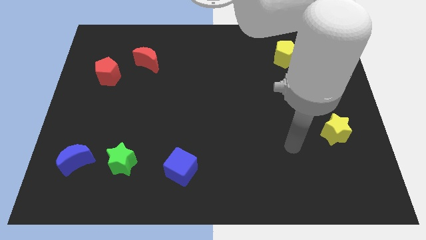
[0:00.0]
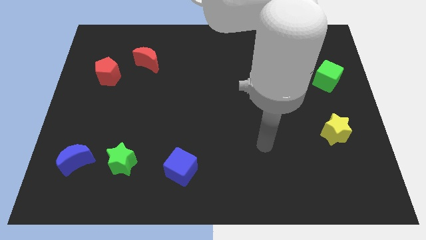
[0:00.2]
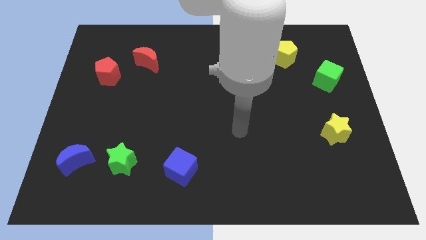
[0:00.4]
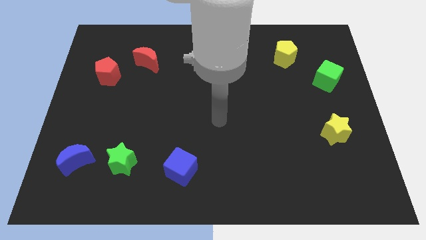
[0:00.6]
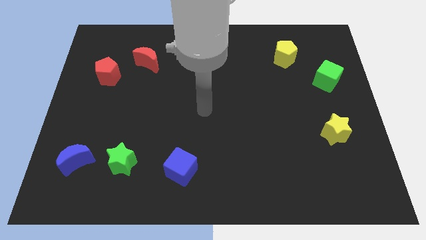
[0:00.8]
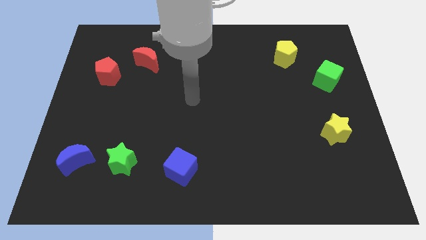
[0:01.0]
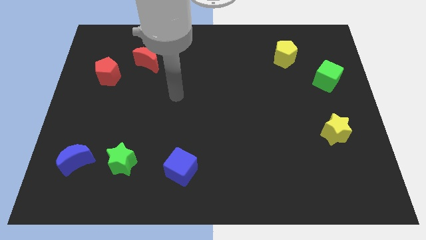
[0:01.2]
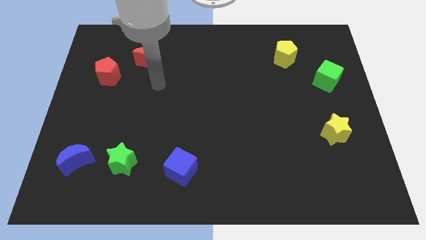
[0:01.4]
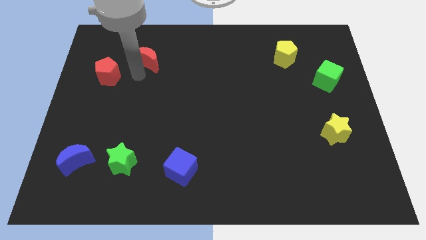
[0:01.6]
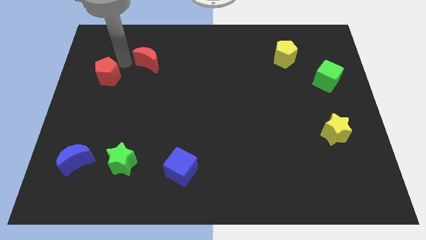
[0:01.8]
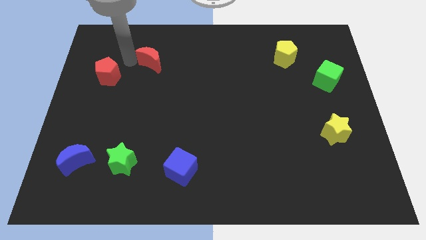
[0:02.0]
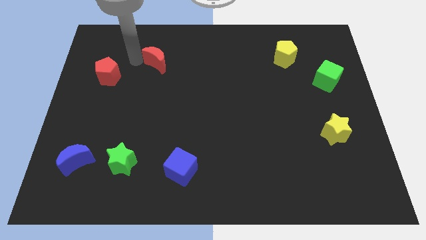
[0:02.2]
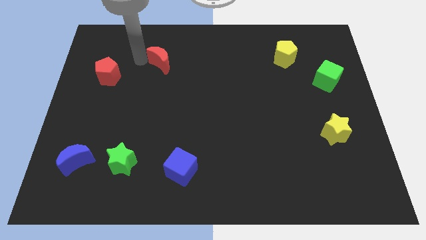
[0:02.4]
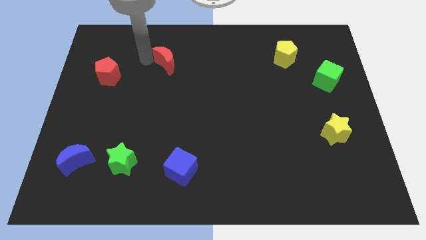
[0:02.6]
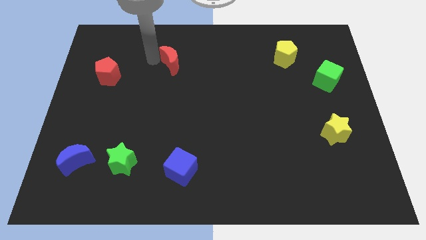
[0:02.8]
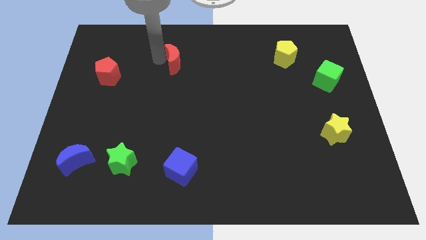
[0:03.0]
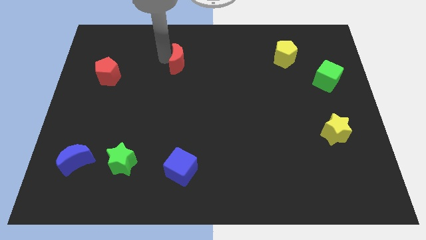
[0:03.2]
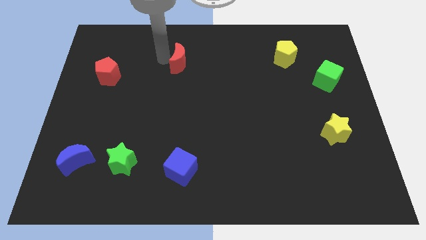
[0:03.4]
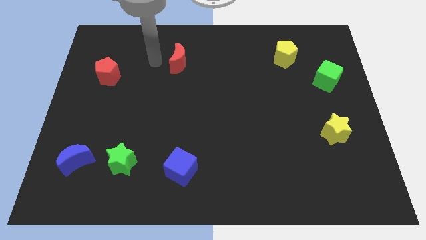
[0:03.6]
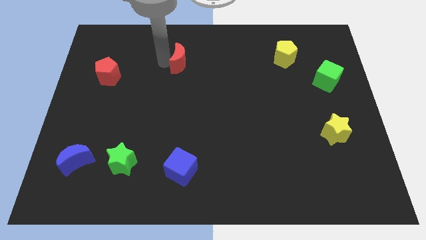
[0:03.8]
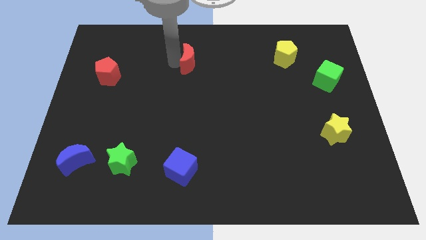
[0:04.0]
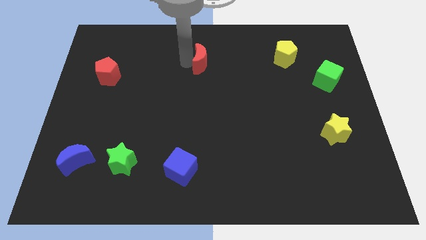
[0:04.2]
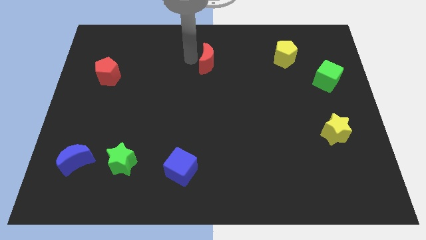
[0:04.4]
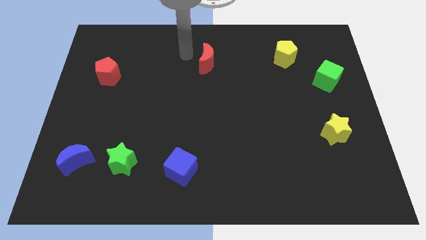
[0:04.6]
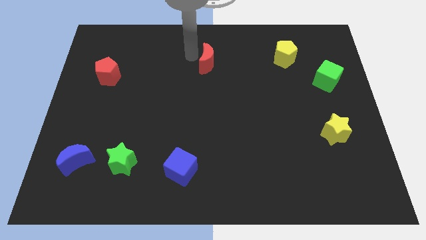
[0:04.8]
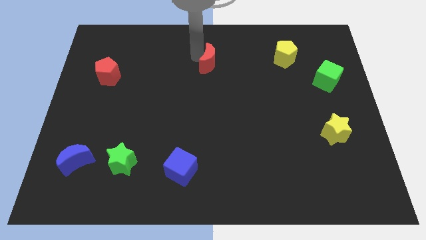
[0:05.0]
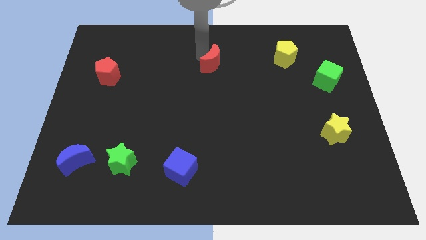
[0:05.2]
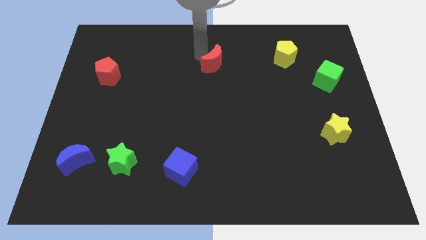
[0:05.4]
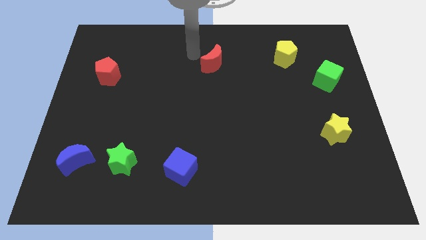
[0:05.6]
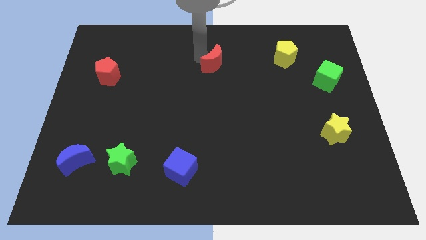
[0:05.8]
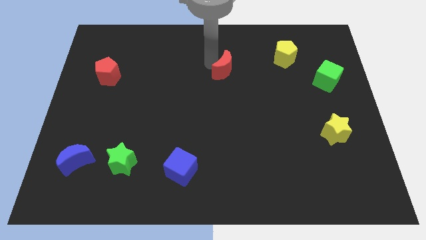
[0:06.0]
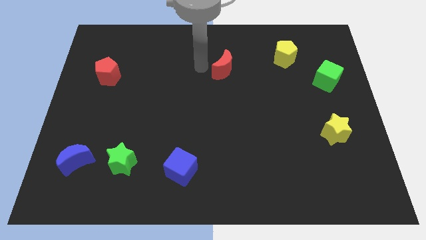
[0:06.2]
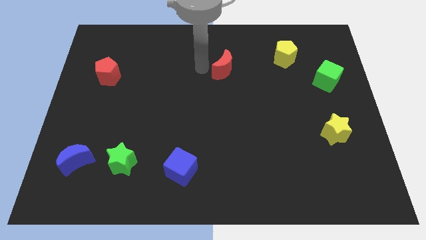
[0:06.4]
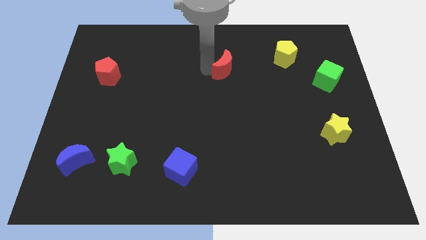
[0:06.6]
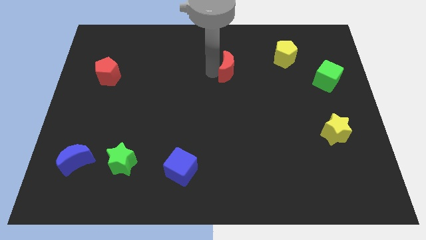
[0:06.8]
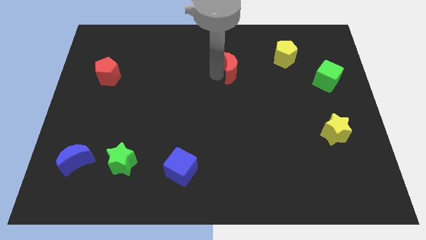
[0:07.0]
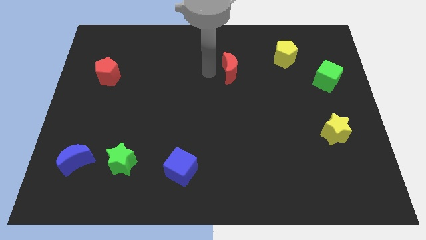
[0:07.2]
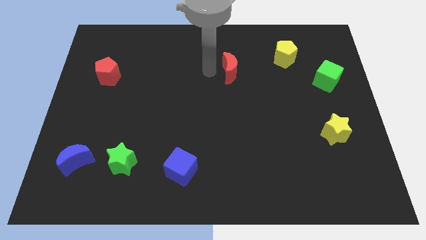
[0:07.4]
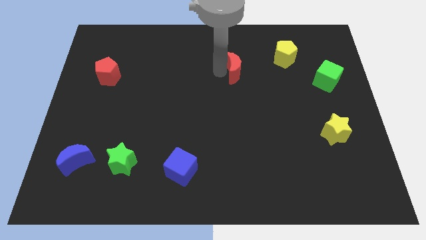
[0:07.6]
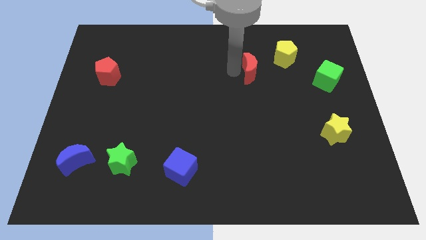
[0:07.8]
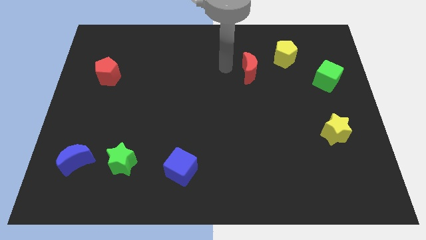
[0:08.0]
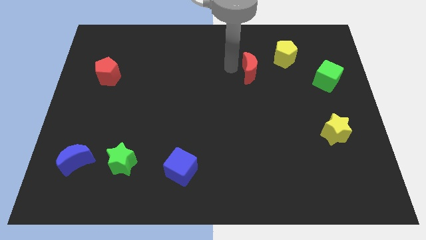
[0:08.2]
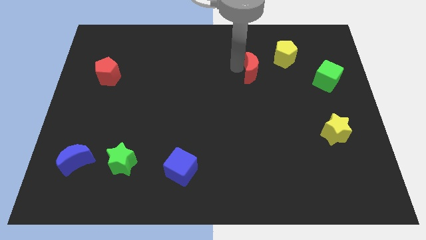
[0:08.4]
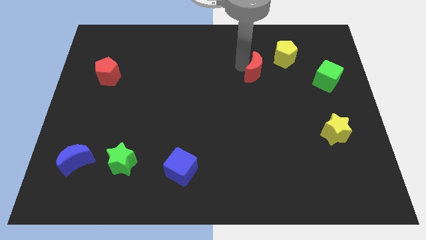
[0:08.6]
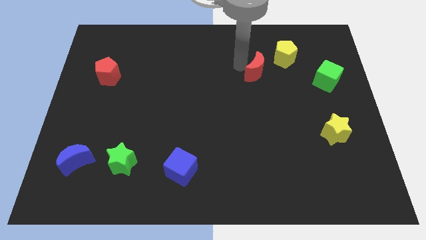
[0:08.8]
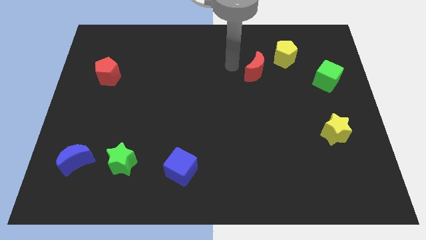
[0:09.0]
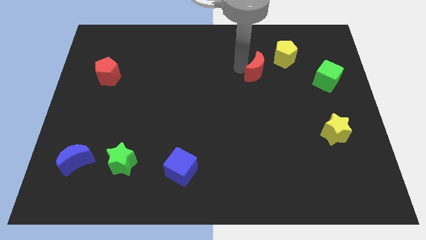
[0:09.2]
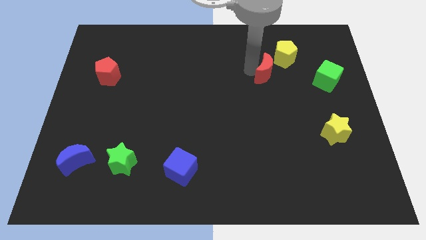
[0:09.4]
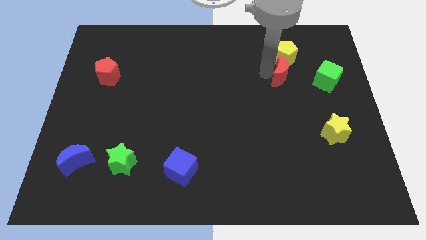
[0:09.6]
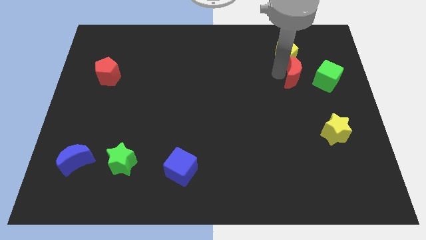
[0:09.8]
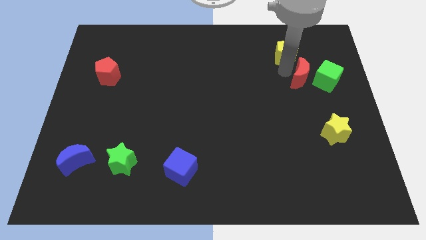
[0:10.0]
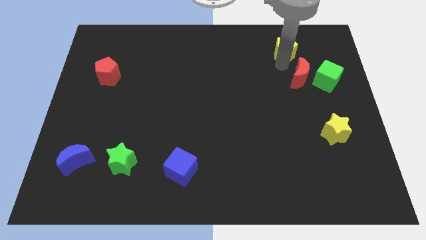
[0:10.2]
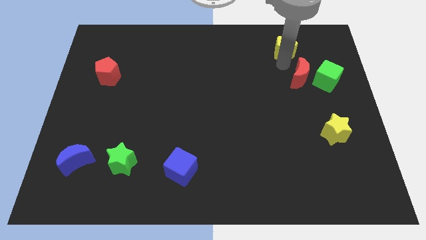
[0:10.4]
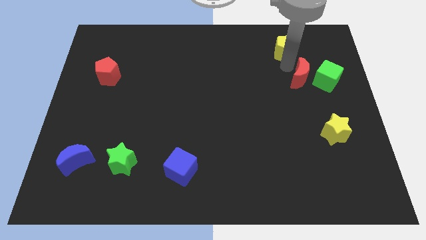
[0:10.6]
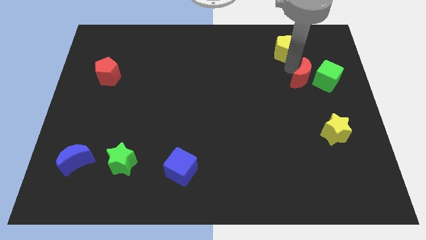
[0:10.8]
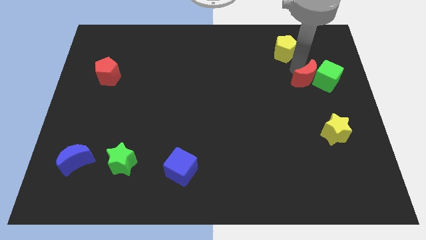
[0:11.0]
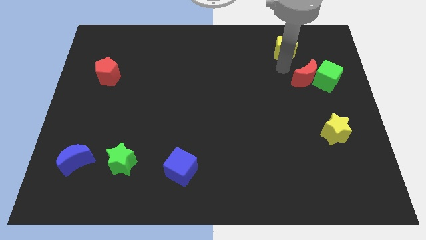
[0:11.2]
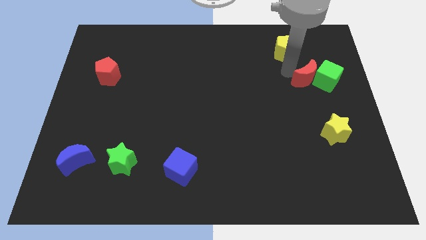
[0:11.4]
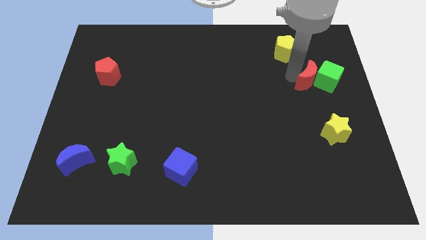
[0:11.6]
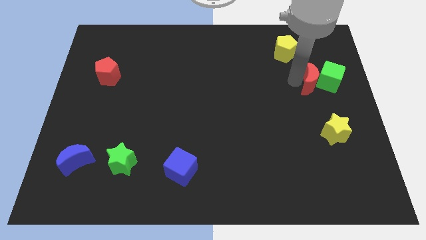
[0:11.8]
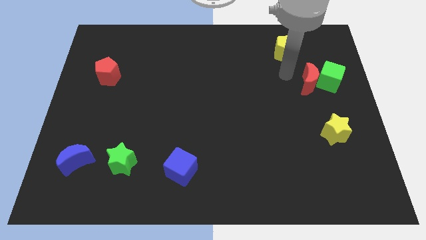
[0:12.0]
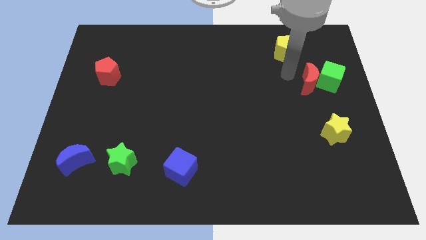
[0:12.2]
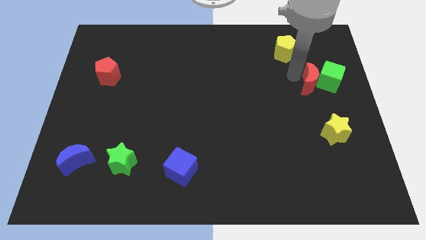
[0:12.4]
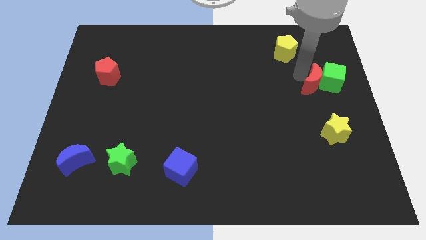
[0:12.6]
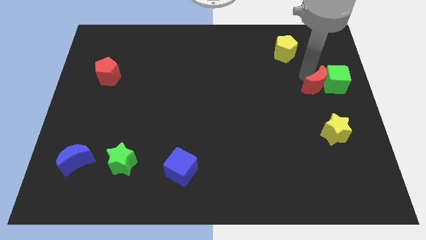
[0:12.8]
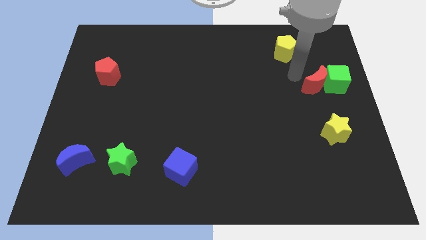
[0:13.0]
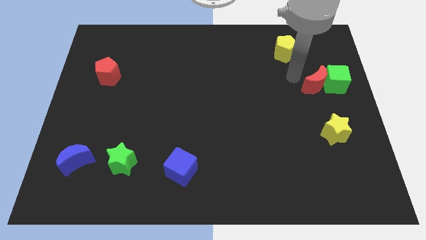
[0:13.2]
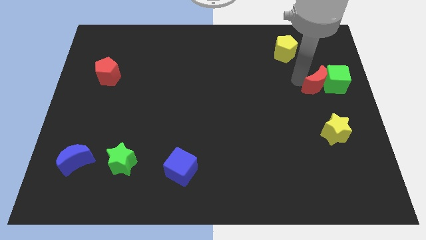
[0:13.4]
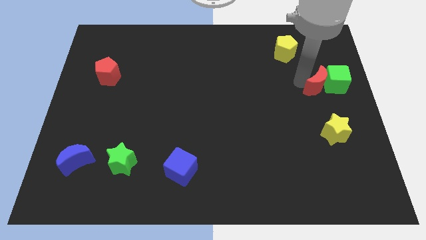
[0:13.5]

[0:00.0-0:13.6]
push the red moon to the center right
